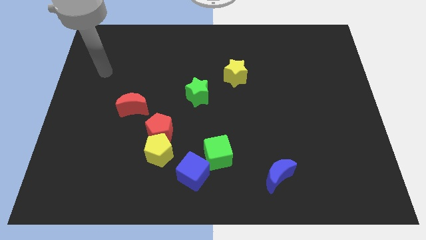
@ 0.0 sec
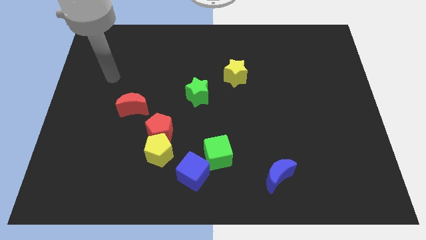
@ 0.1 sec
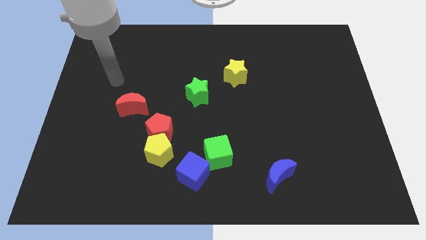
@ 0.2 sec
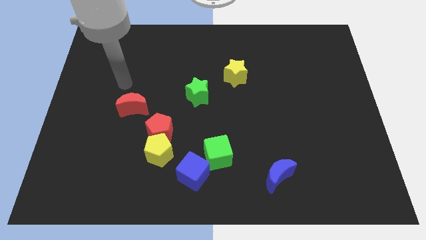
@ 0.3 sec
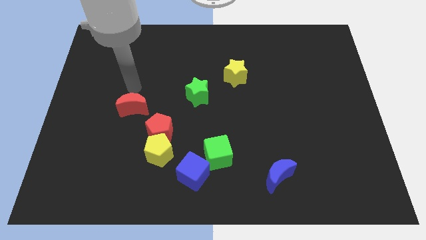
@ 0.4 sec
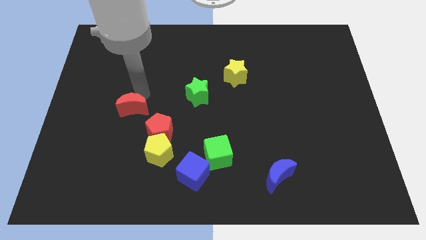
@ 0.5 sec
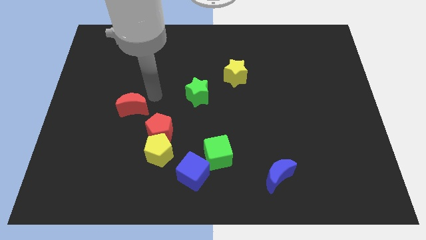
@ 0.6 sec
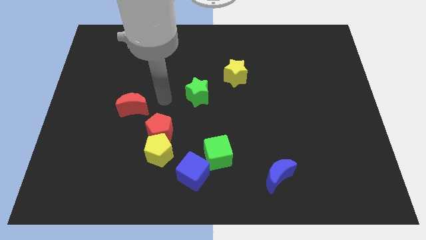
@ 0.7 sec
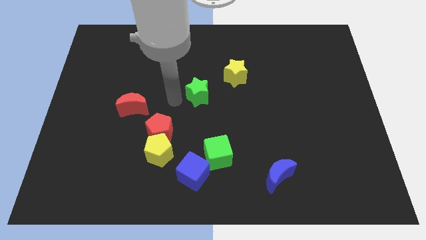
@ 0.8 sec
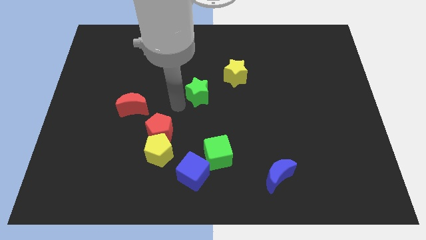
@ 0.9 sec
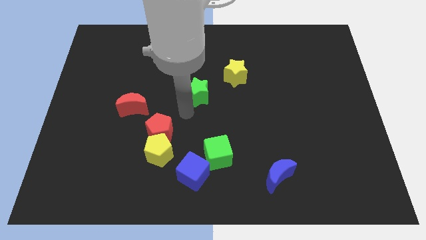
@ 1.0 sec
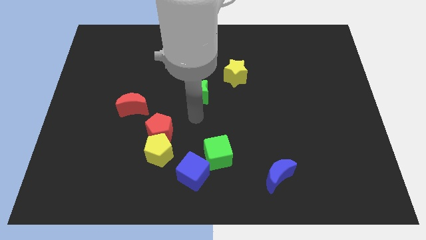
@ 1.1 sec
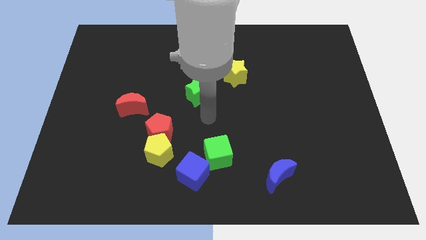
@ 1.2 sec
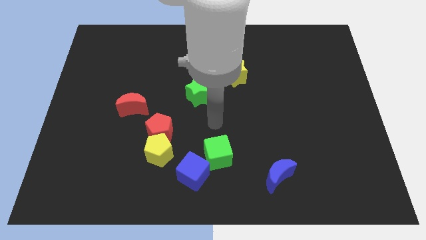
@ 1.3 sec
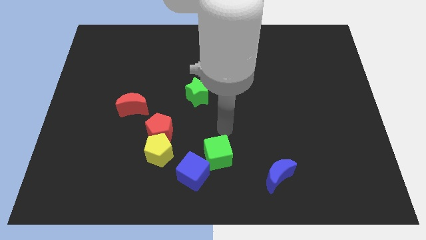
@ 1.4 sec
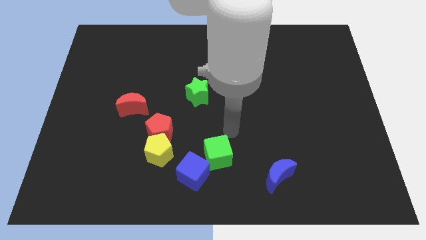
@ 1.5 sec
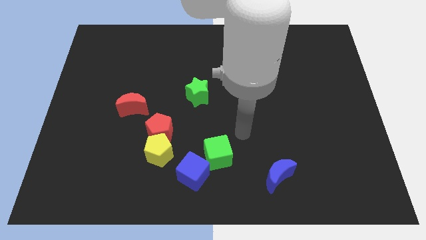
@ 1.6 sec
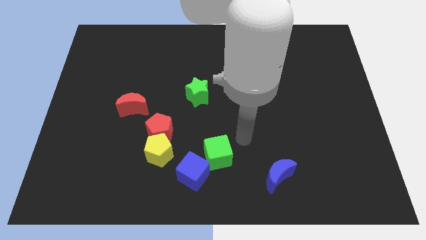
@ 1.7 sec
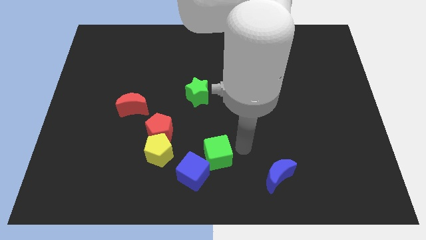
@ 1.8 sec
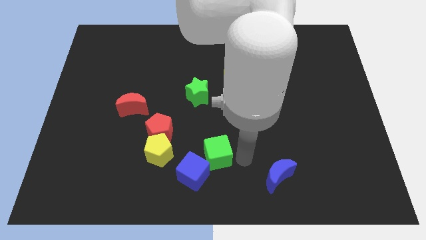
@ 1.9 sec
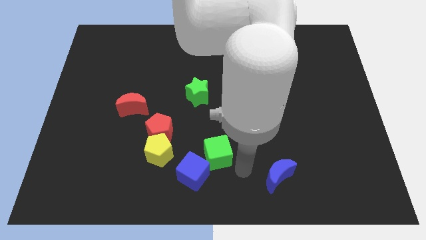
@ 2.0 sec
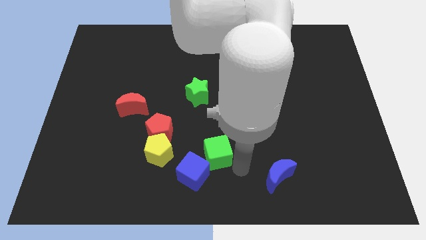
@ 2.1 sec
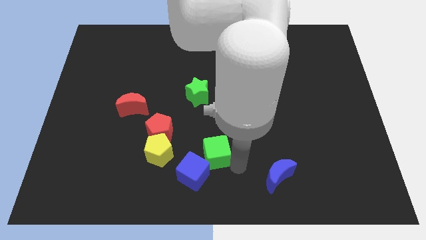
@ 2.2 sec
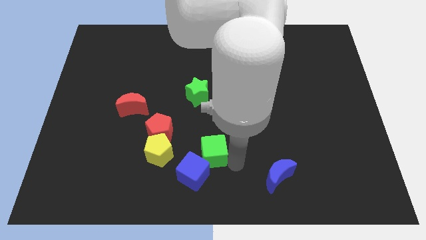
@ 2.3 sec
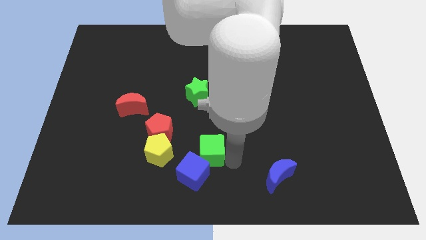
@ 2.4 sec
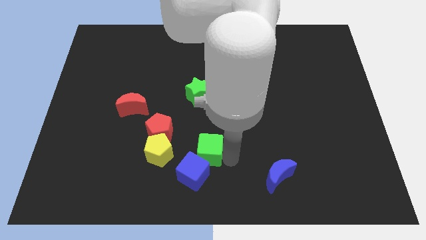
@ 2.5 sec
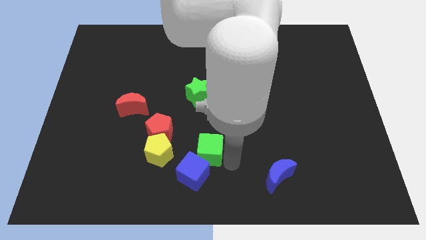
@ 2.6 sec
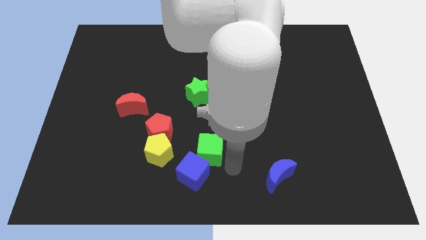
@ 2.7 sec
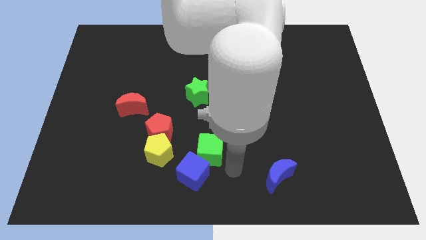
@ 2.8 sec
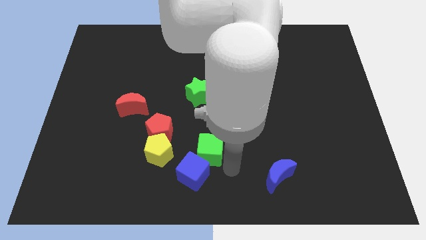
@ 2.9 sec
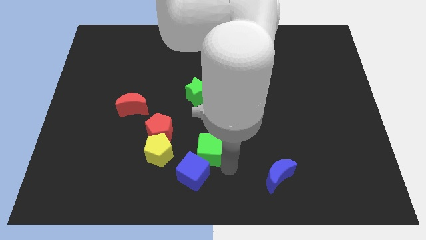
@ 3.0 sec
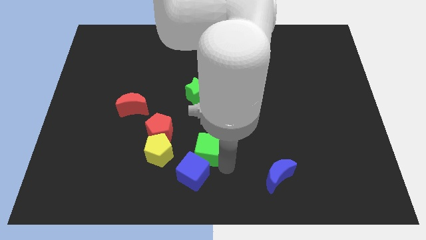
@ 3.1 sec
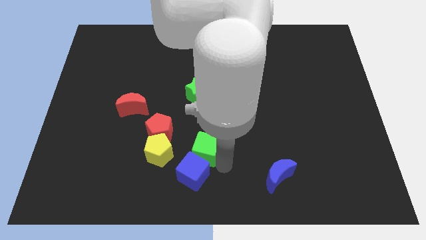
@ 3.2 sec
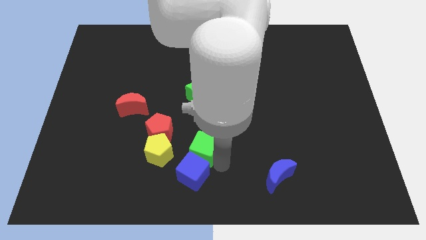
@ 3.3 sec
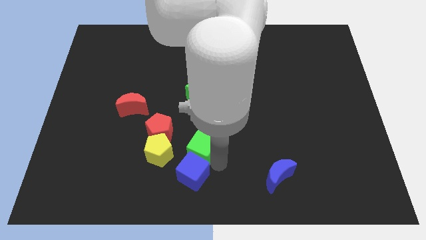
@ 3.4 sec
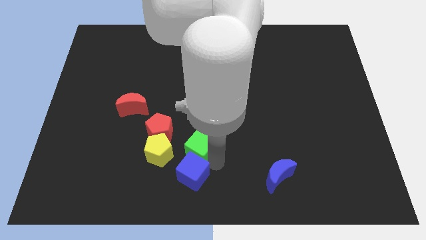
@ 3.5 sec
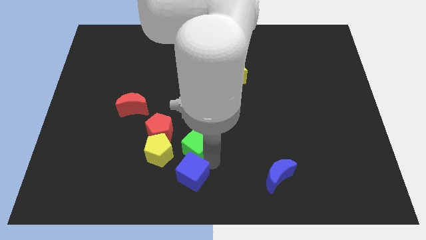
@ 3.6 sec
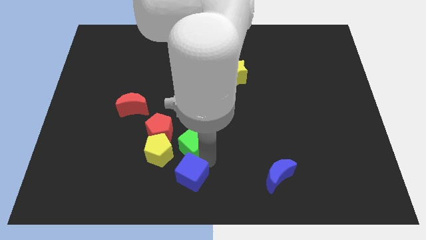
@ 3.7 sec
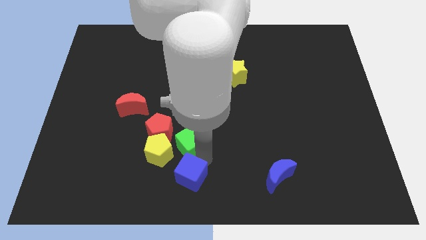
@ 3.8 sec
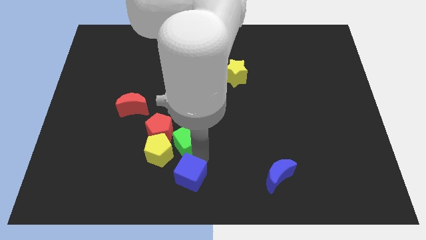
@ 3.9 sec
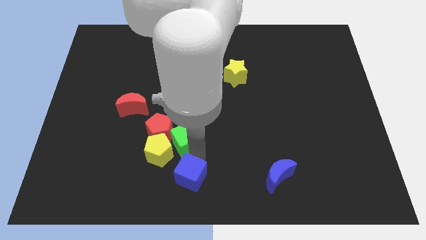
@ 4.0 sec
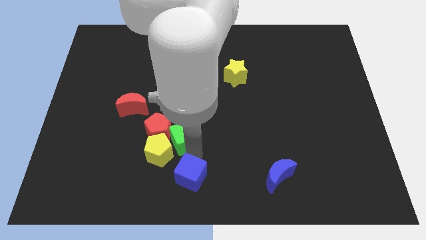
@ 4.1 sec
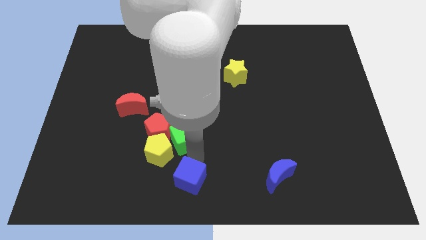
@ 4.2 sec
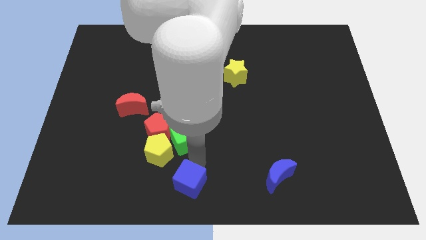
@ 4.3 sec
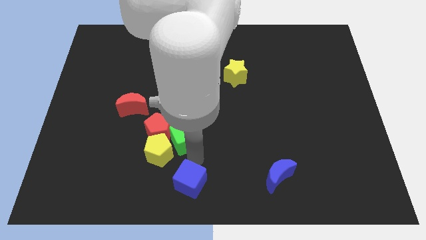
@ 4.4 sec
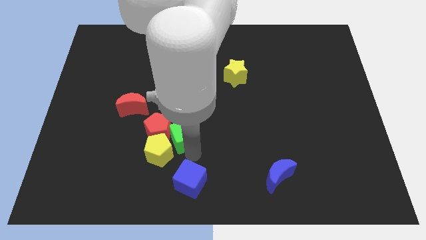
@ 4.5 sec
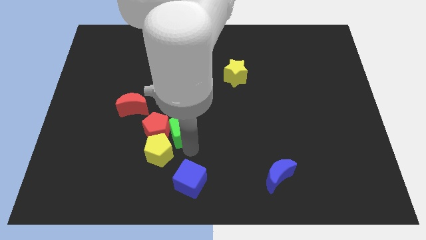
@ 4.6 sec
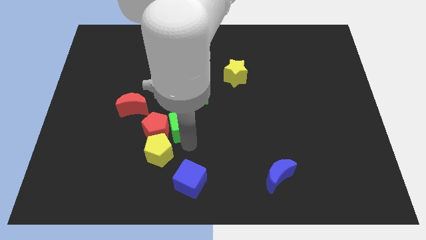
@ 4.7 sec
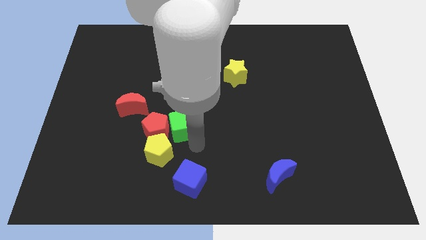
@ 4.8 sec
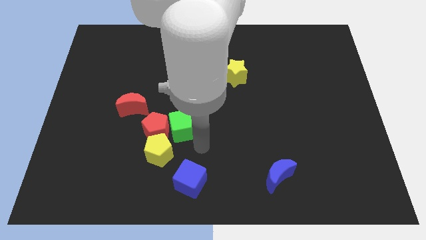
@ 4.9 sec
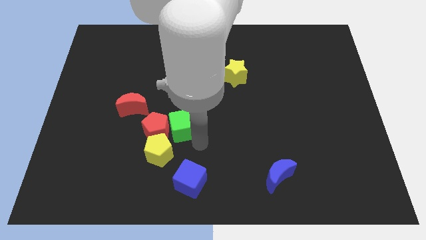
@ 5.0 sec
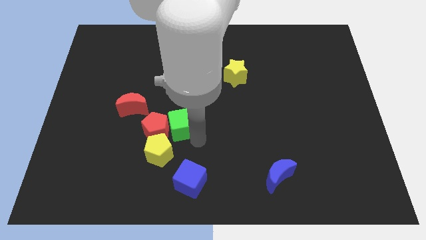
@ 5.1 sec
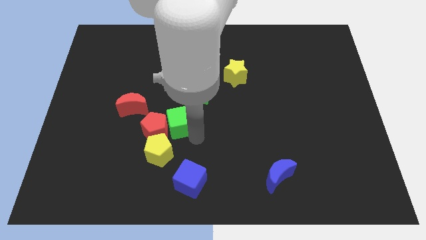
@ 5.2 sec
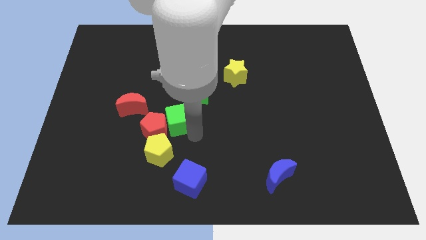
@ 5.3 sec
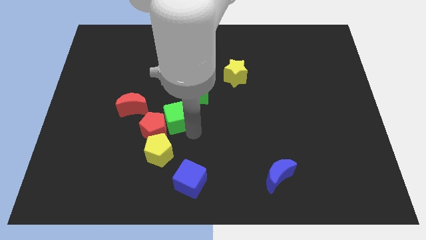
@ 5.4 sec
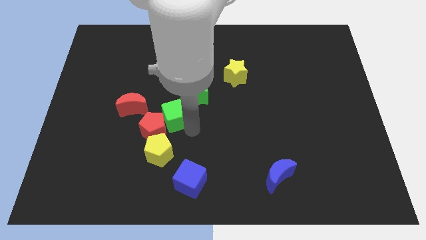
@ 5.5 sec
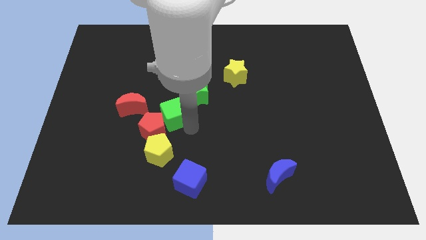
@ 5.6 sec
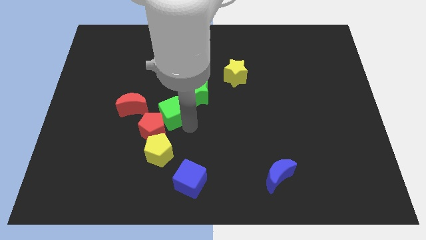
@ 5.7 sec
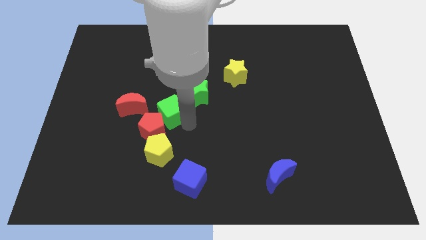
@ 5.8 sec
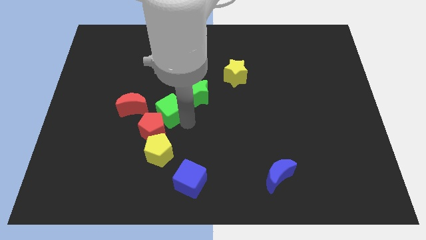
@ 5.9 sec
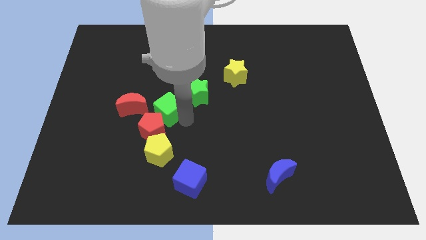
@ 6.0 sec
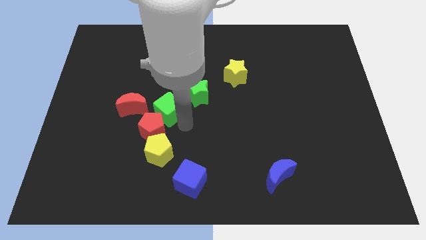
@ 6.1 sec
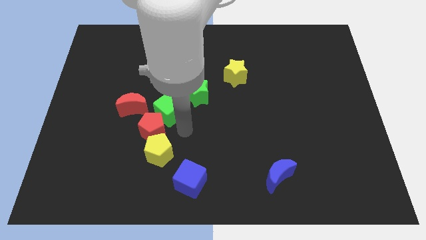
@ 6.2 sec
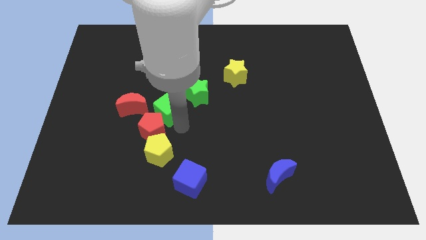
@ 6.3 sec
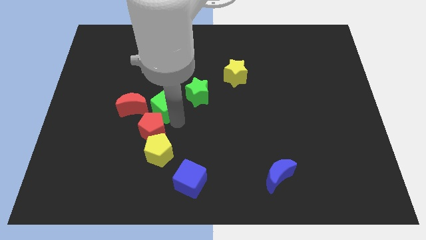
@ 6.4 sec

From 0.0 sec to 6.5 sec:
slide the green cube to the left side of the green star

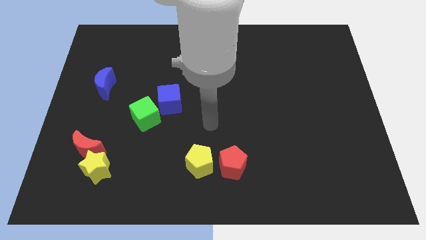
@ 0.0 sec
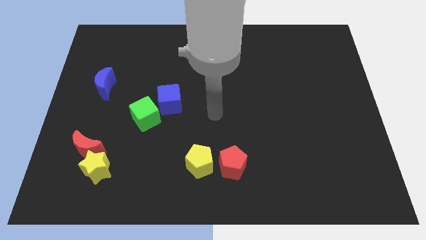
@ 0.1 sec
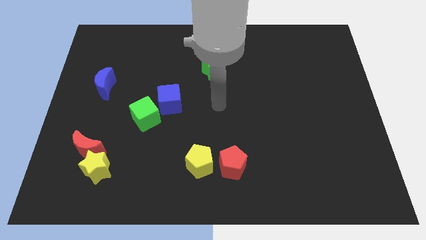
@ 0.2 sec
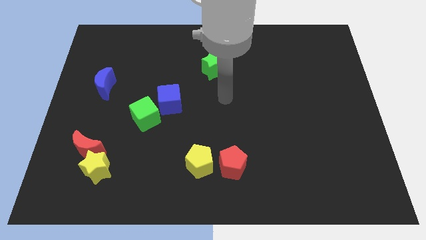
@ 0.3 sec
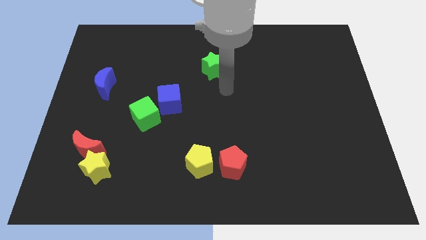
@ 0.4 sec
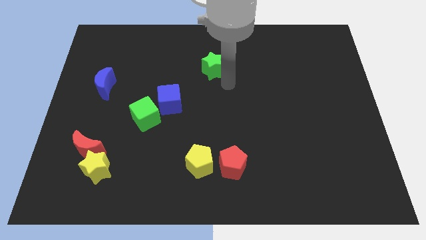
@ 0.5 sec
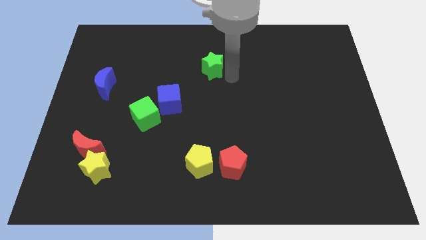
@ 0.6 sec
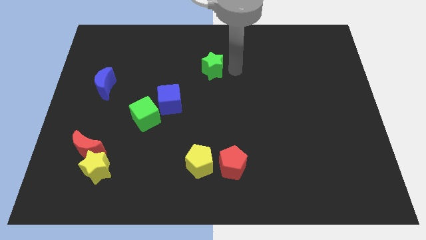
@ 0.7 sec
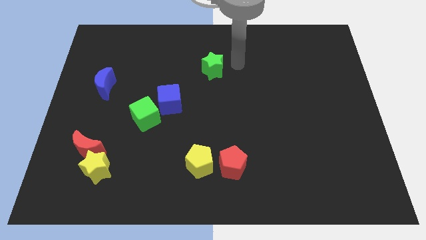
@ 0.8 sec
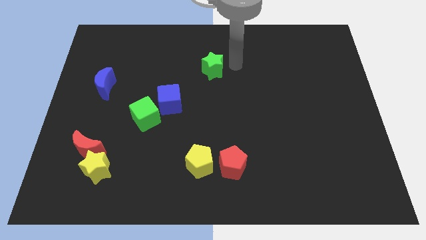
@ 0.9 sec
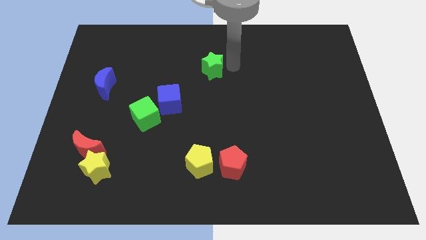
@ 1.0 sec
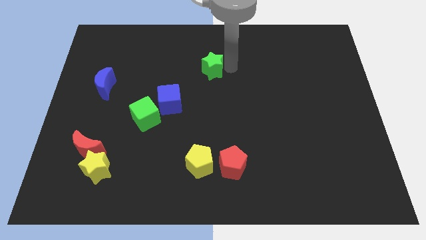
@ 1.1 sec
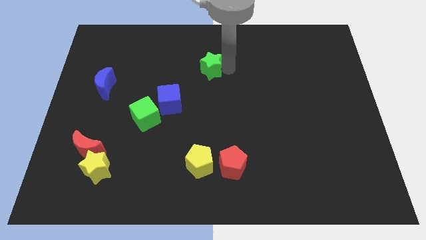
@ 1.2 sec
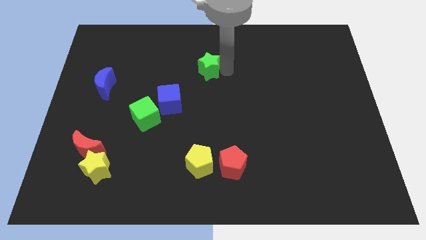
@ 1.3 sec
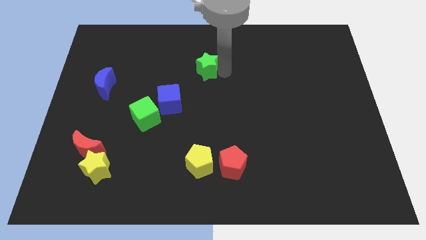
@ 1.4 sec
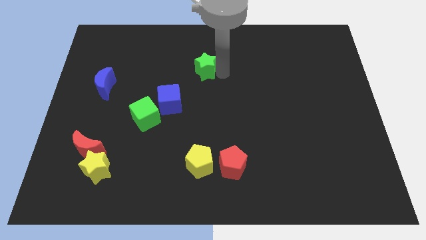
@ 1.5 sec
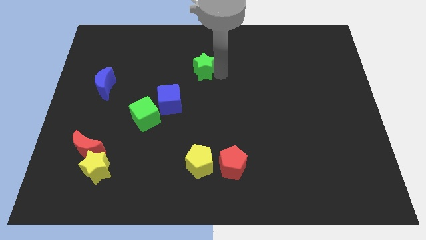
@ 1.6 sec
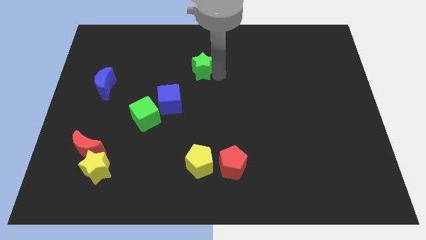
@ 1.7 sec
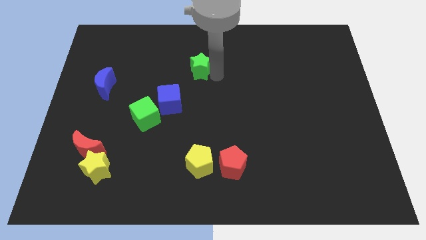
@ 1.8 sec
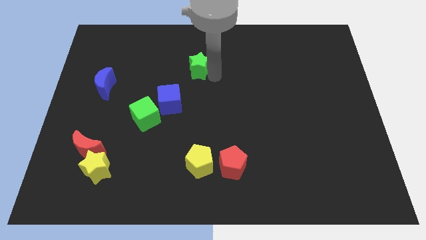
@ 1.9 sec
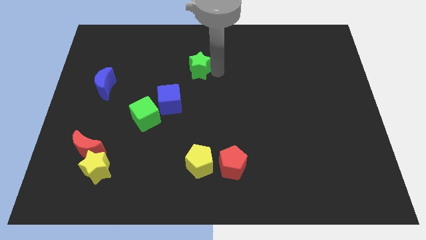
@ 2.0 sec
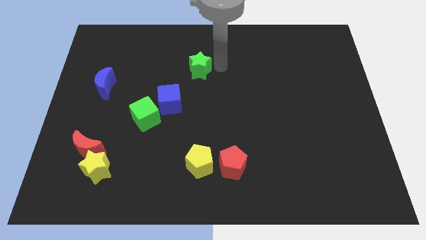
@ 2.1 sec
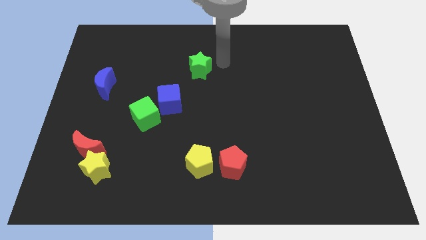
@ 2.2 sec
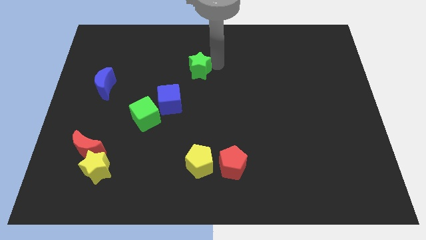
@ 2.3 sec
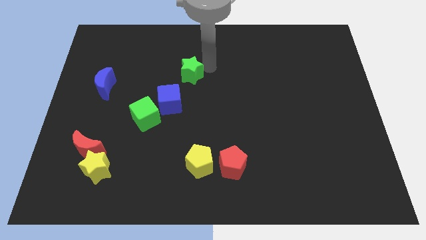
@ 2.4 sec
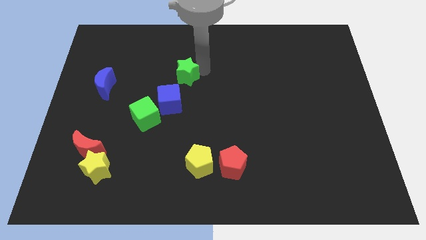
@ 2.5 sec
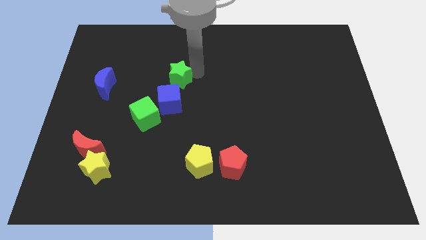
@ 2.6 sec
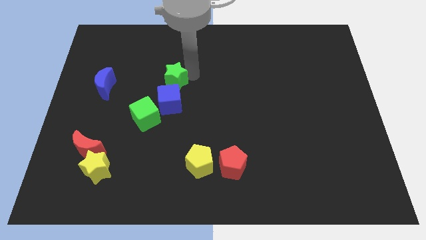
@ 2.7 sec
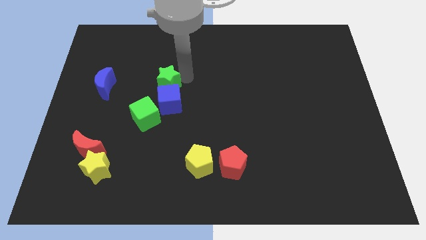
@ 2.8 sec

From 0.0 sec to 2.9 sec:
push the green star to the top left of the blue cube
